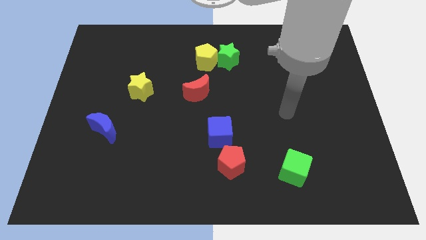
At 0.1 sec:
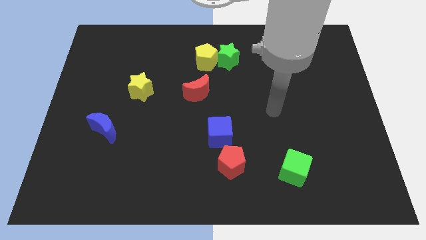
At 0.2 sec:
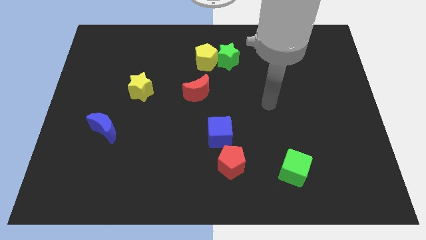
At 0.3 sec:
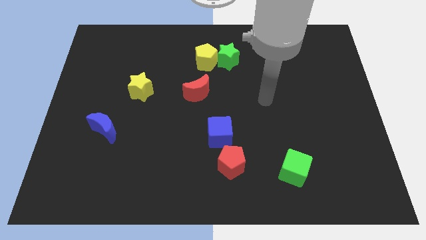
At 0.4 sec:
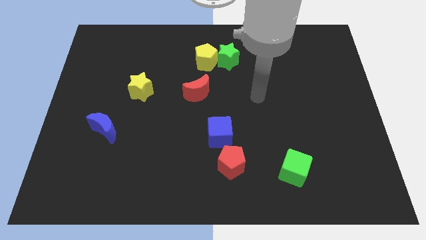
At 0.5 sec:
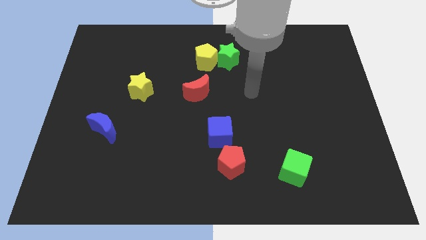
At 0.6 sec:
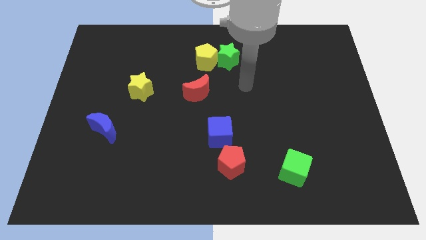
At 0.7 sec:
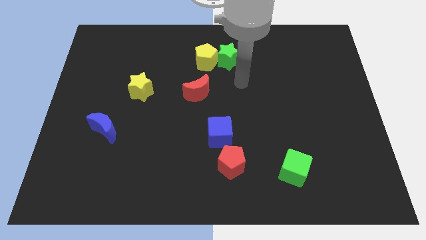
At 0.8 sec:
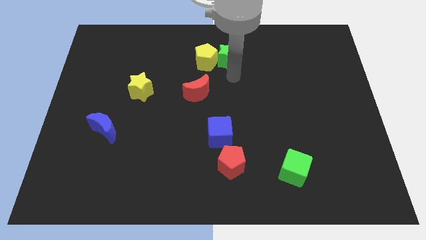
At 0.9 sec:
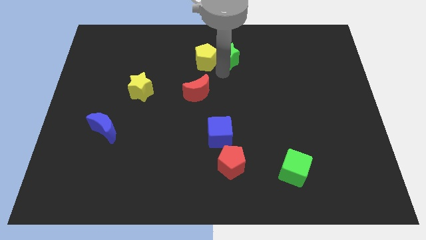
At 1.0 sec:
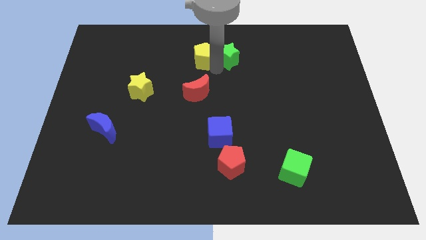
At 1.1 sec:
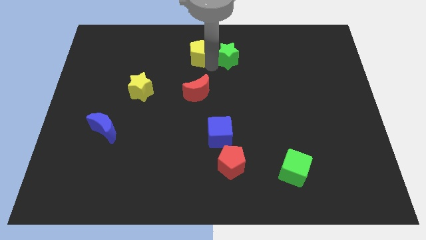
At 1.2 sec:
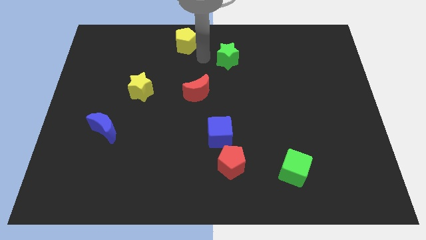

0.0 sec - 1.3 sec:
move the green star away from the yellow pentagon

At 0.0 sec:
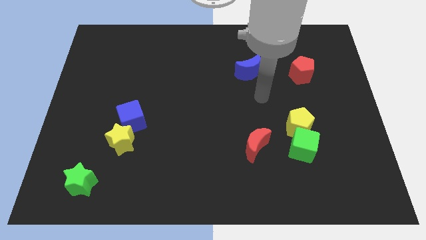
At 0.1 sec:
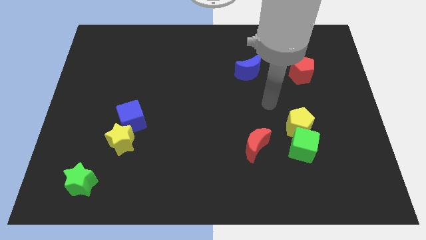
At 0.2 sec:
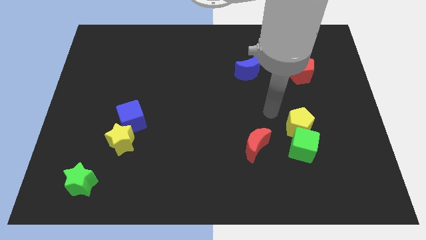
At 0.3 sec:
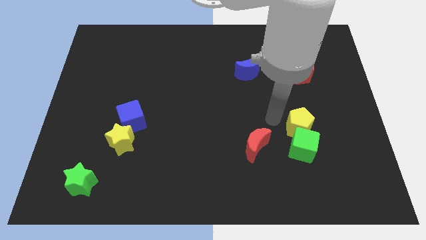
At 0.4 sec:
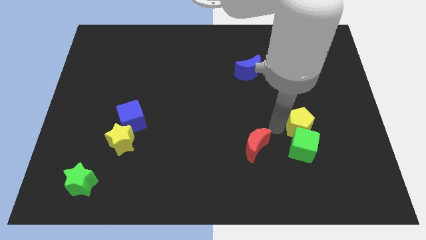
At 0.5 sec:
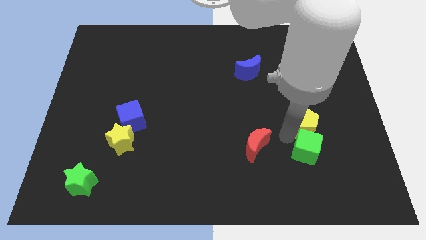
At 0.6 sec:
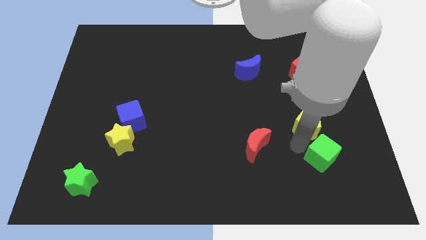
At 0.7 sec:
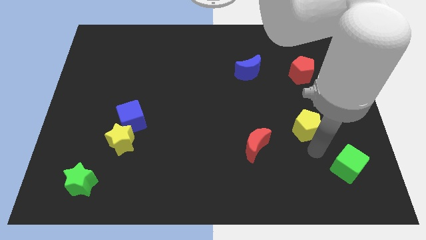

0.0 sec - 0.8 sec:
pull the yellow pentagon apart from the green cube

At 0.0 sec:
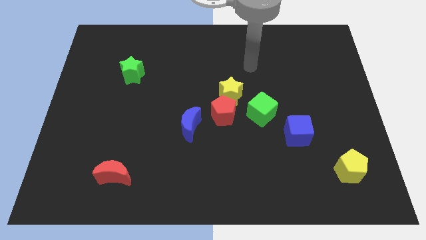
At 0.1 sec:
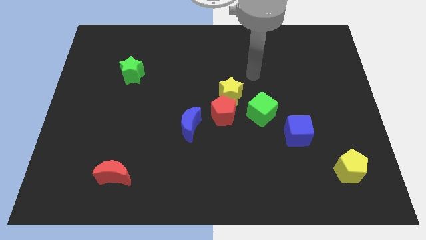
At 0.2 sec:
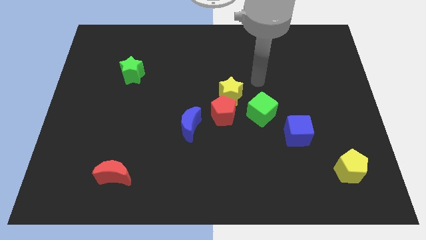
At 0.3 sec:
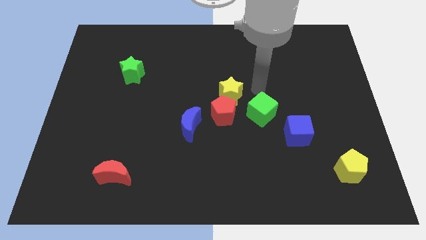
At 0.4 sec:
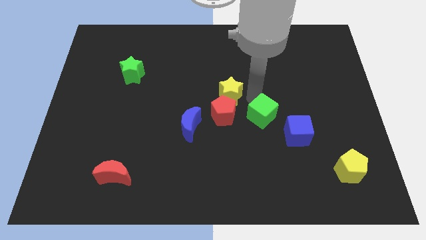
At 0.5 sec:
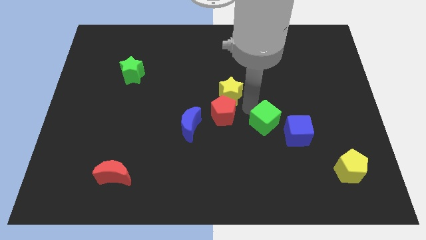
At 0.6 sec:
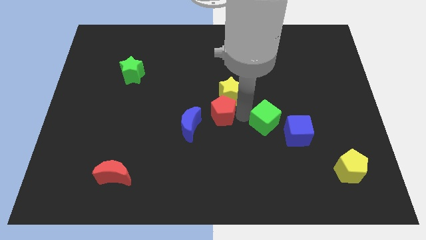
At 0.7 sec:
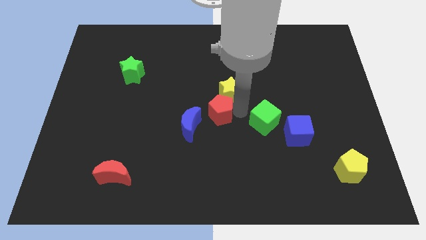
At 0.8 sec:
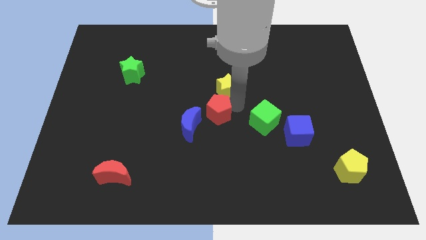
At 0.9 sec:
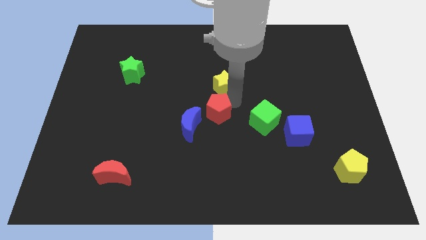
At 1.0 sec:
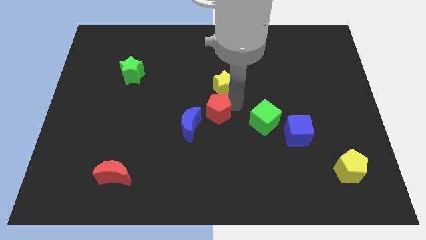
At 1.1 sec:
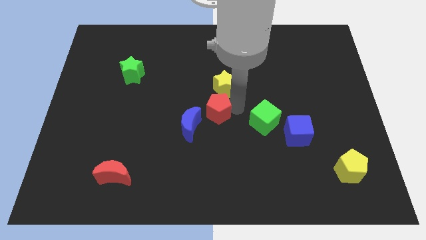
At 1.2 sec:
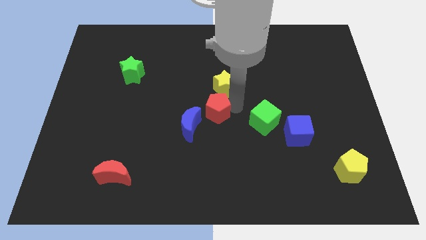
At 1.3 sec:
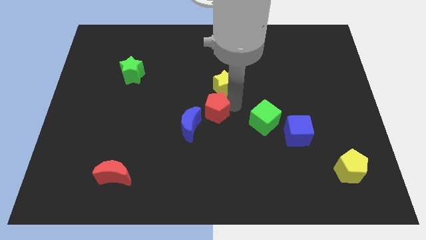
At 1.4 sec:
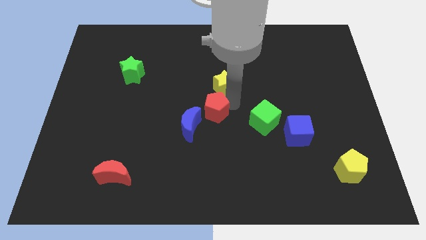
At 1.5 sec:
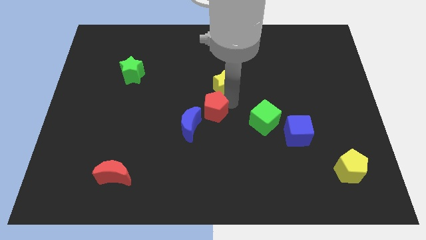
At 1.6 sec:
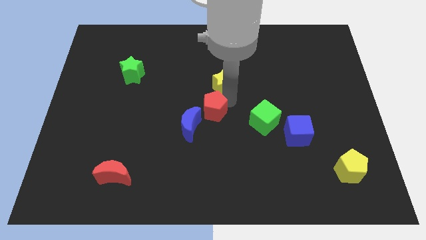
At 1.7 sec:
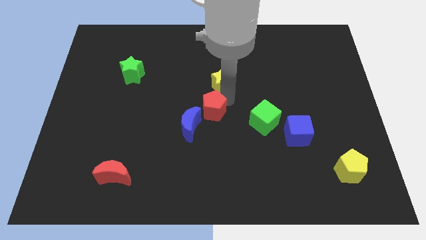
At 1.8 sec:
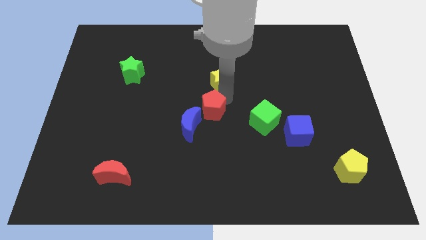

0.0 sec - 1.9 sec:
separate the yellow star from the red pentagon and green cube

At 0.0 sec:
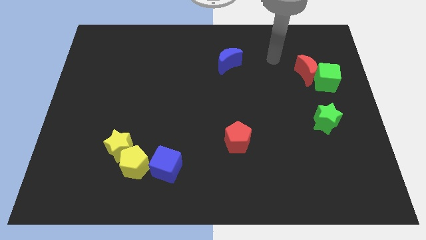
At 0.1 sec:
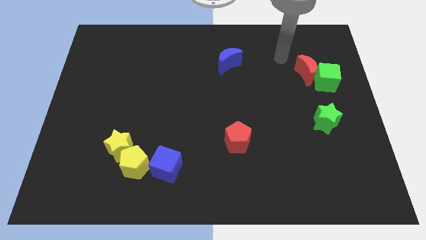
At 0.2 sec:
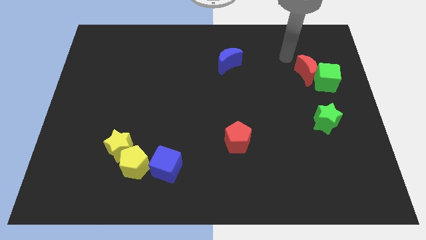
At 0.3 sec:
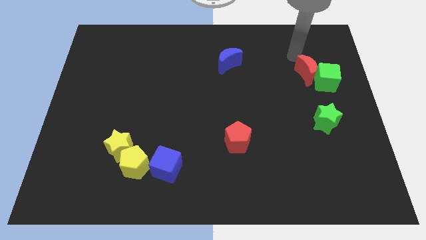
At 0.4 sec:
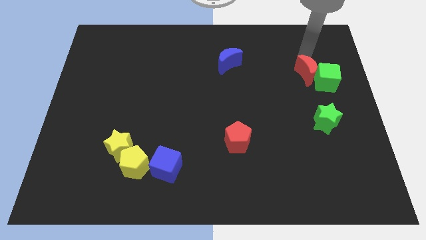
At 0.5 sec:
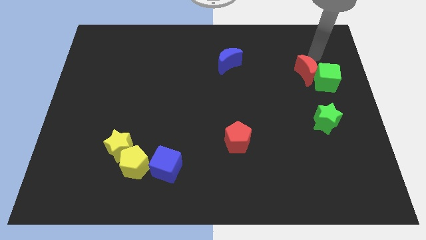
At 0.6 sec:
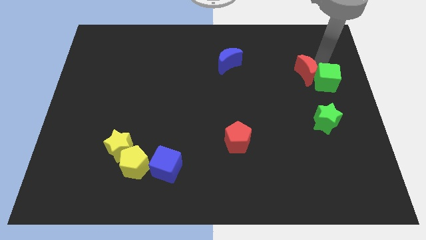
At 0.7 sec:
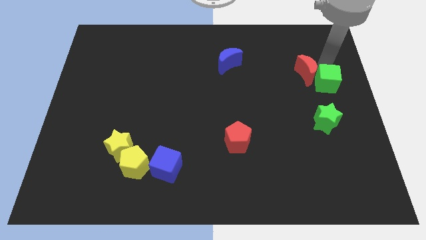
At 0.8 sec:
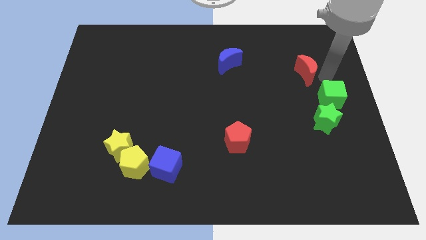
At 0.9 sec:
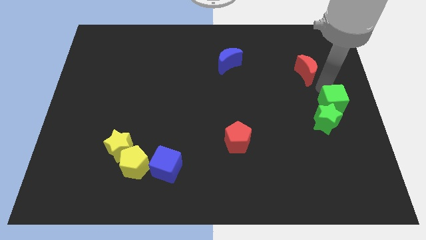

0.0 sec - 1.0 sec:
separate the red moon from the green cube

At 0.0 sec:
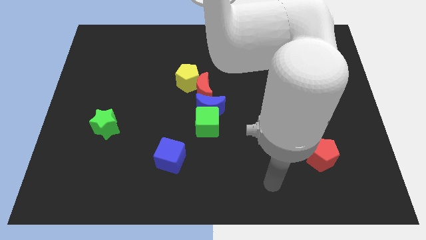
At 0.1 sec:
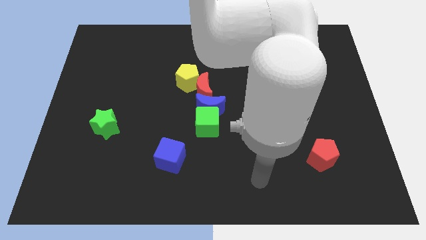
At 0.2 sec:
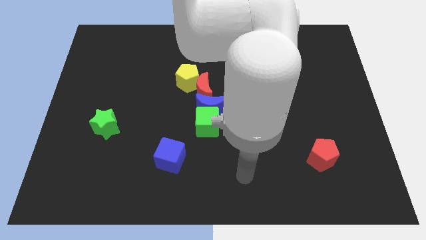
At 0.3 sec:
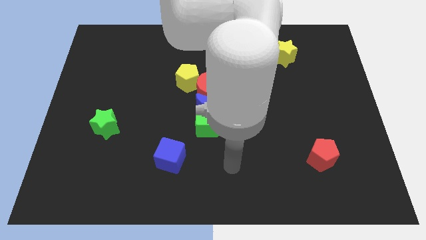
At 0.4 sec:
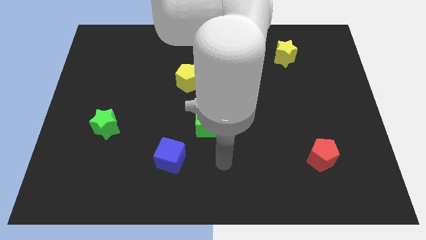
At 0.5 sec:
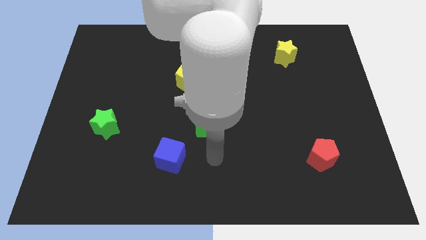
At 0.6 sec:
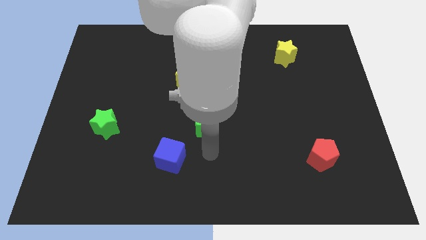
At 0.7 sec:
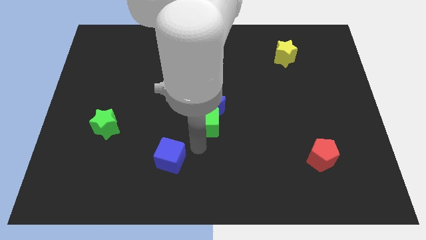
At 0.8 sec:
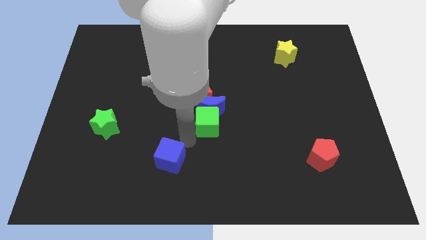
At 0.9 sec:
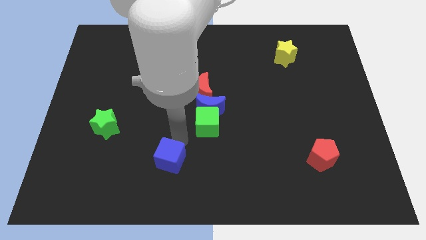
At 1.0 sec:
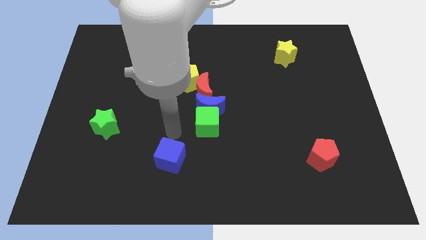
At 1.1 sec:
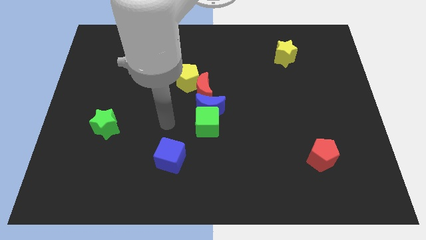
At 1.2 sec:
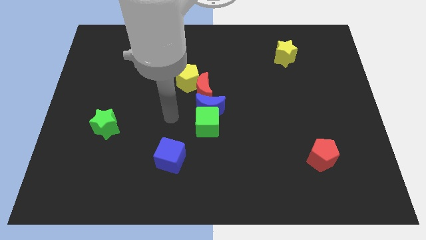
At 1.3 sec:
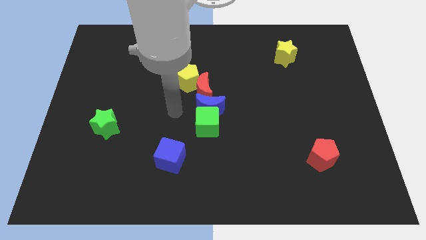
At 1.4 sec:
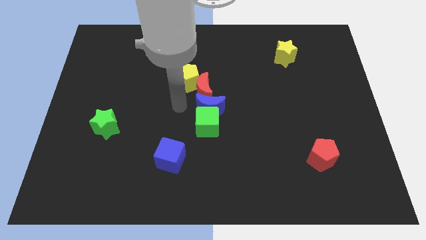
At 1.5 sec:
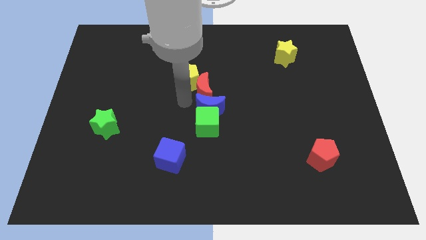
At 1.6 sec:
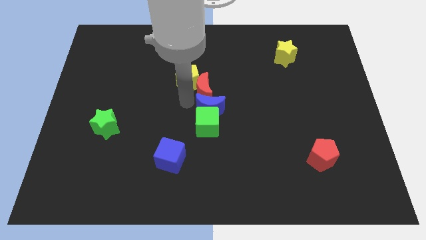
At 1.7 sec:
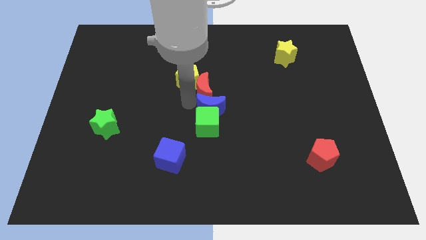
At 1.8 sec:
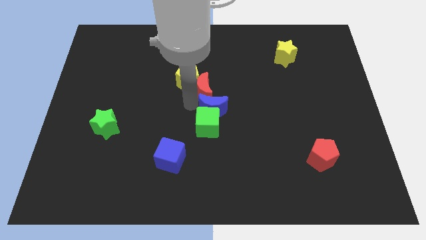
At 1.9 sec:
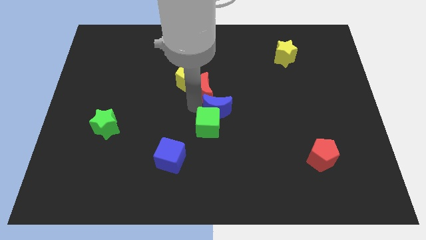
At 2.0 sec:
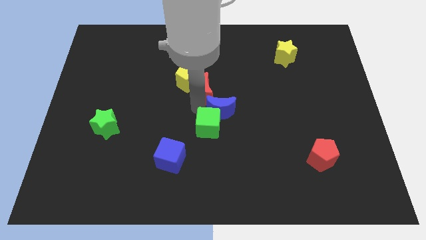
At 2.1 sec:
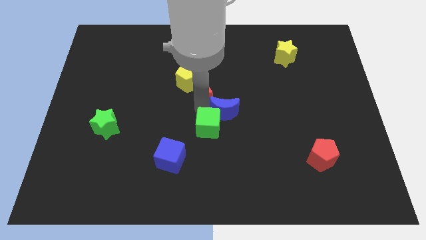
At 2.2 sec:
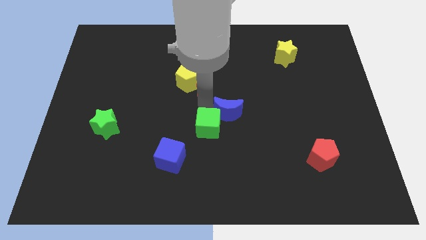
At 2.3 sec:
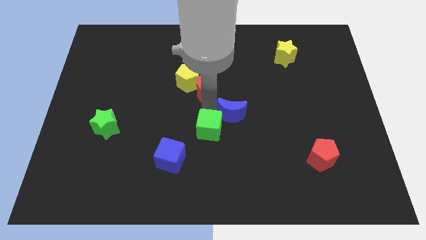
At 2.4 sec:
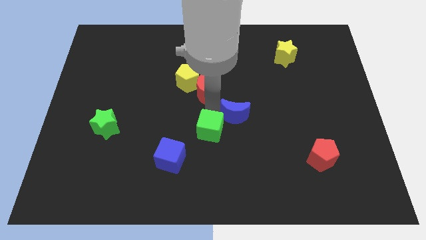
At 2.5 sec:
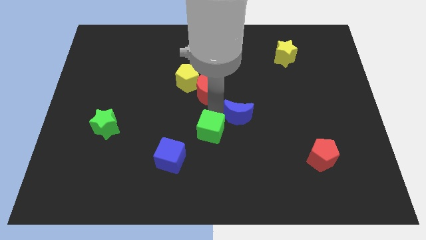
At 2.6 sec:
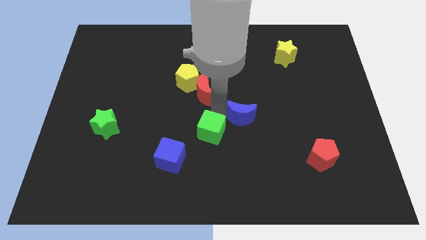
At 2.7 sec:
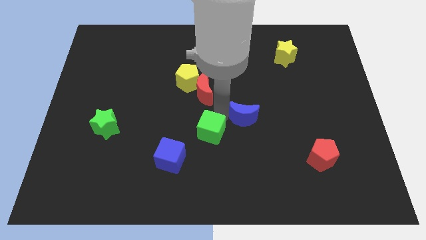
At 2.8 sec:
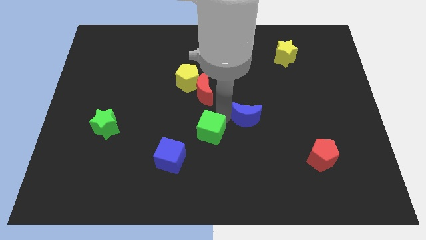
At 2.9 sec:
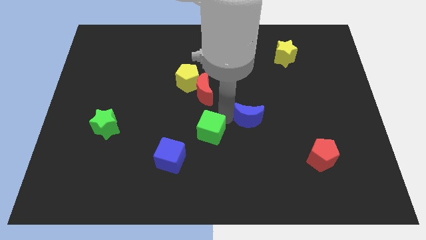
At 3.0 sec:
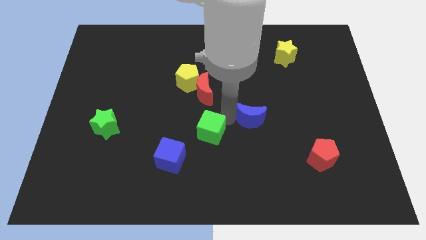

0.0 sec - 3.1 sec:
move the blue moon away from the green cube and red moon

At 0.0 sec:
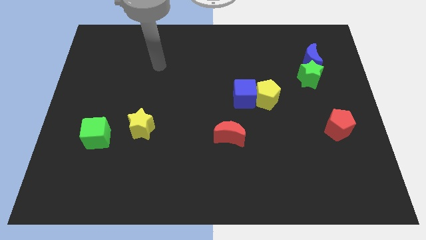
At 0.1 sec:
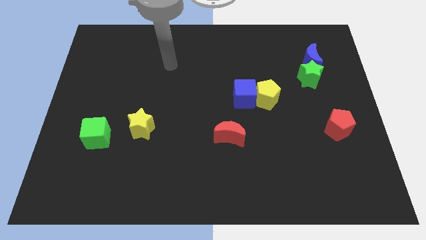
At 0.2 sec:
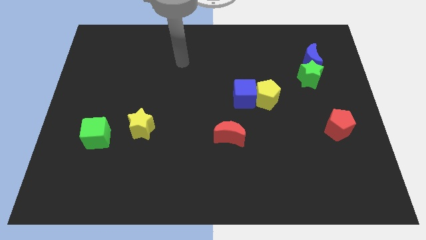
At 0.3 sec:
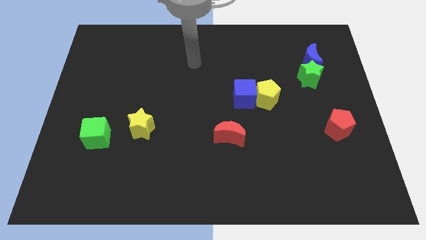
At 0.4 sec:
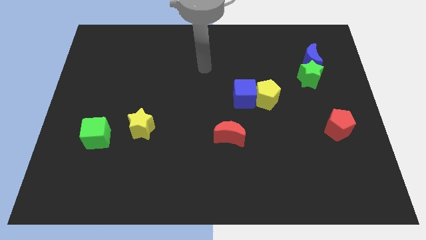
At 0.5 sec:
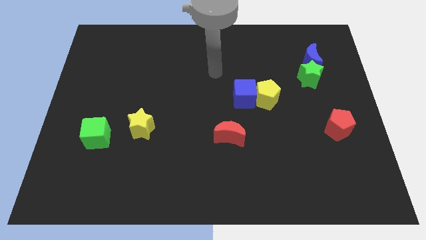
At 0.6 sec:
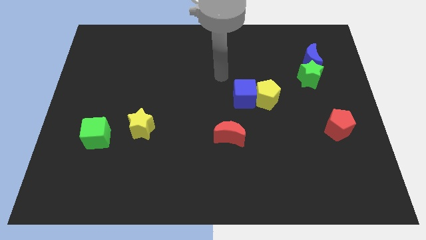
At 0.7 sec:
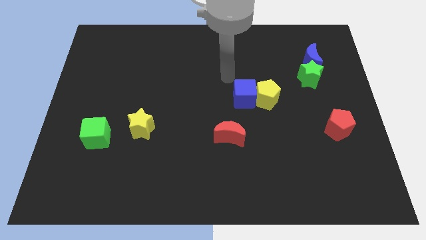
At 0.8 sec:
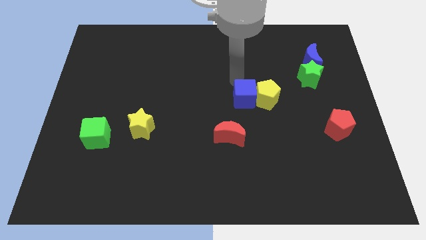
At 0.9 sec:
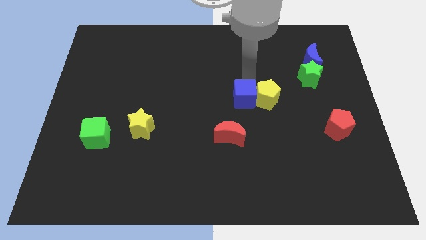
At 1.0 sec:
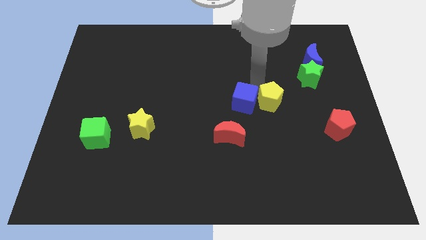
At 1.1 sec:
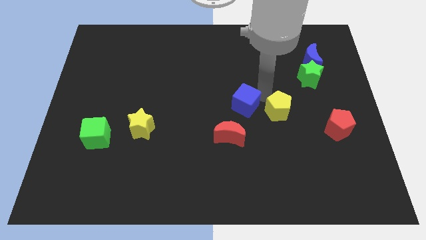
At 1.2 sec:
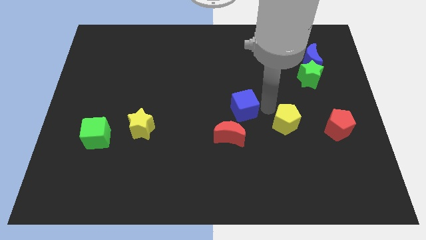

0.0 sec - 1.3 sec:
separate the blue cube from the yellow pentagon
